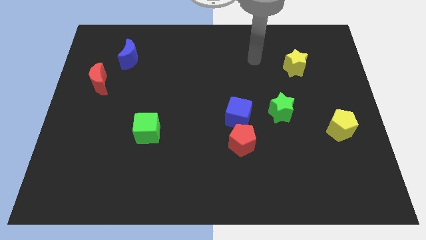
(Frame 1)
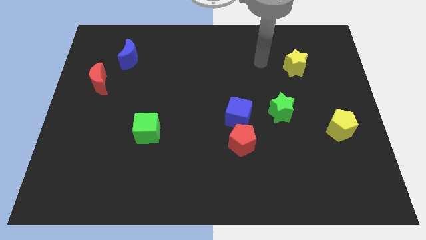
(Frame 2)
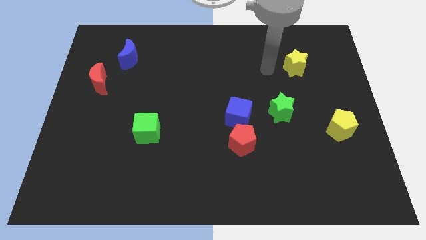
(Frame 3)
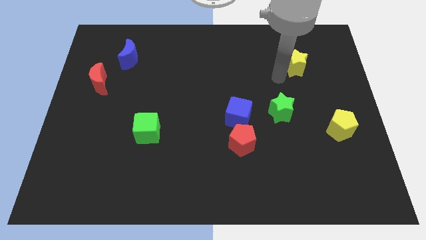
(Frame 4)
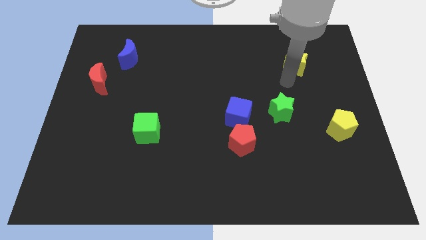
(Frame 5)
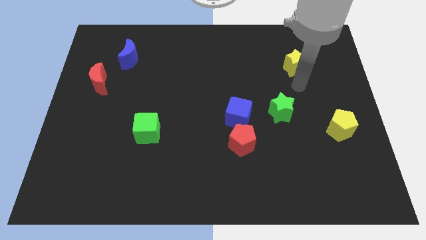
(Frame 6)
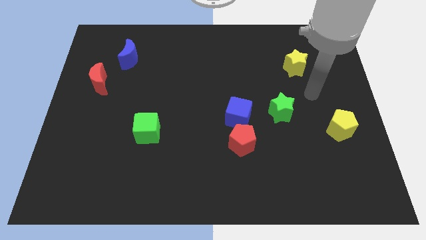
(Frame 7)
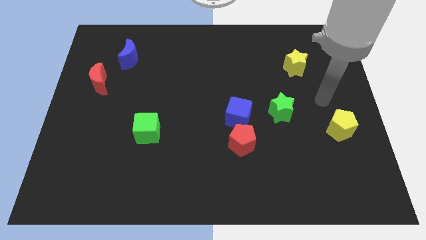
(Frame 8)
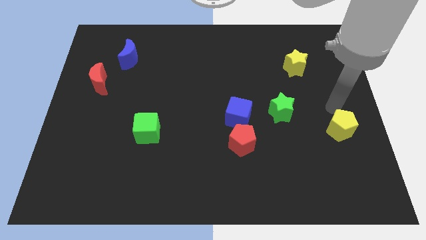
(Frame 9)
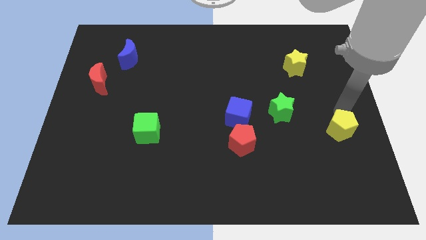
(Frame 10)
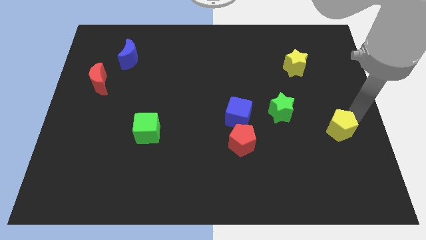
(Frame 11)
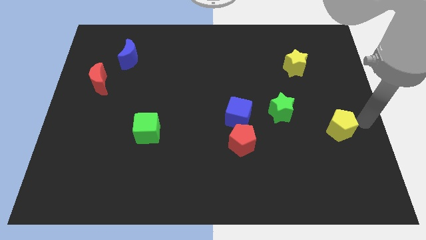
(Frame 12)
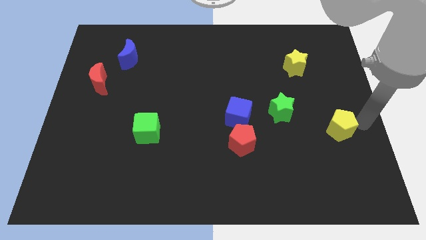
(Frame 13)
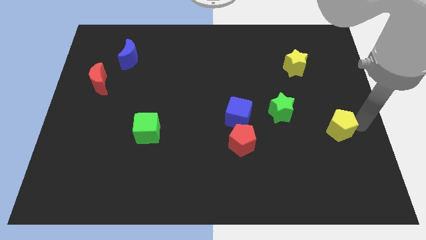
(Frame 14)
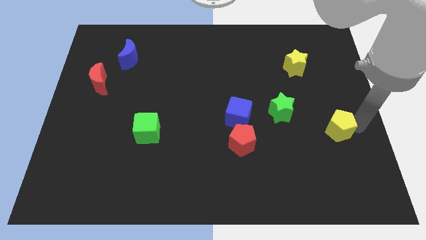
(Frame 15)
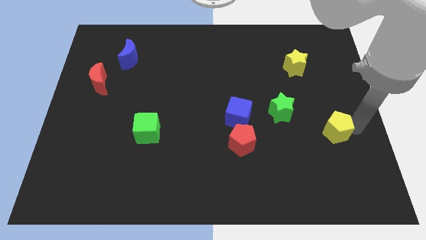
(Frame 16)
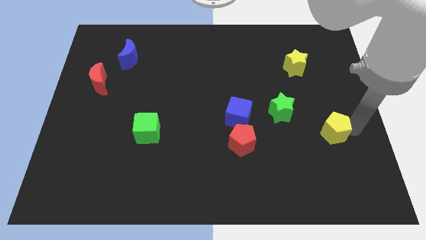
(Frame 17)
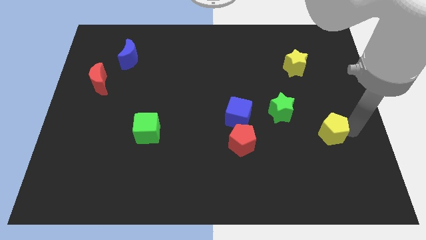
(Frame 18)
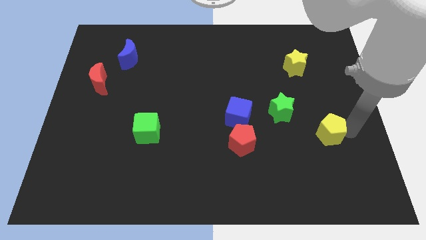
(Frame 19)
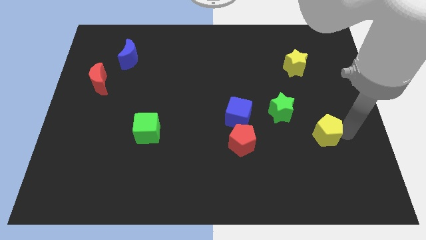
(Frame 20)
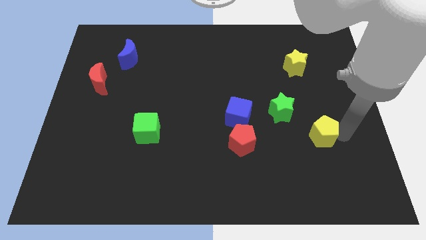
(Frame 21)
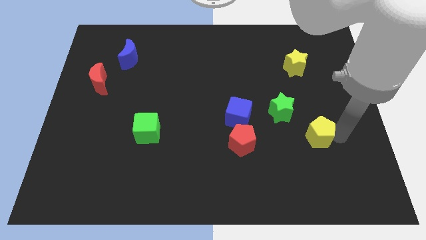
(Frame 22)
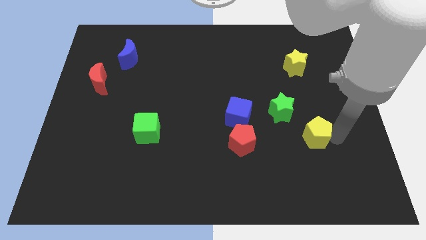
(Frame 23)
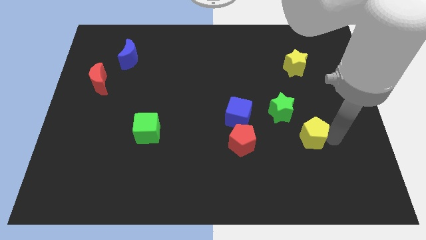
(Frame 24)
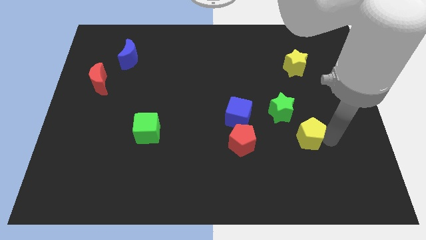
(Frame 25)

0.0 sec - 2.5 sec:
slightly move the yellow pentagon left

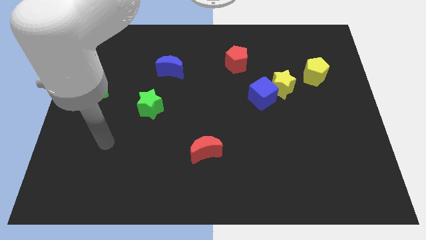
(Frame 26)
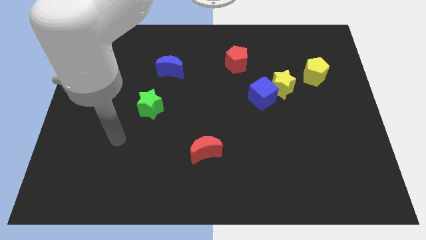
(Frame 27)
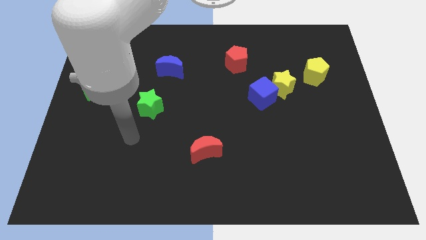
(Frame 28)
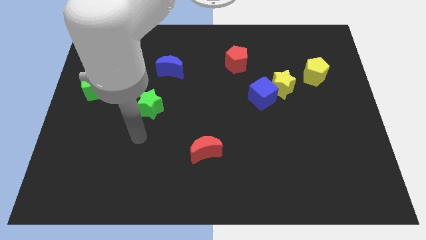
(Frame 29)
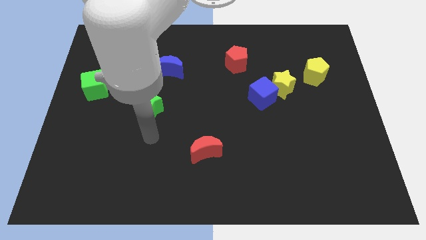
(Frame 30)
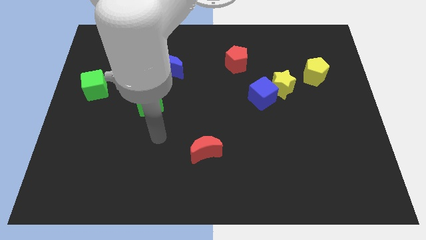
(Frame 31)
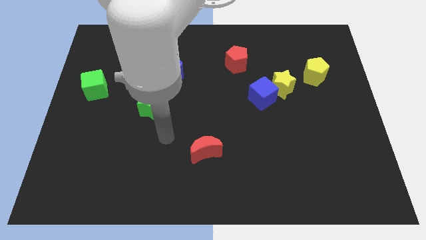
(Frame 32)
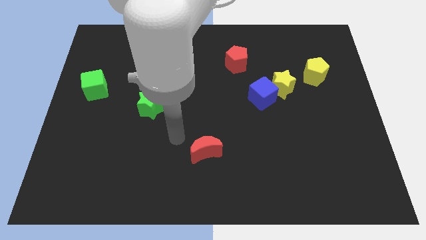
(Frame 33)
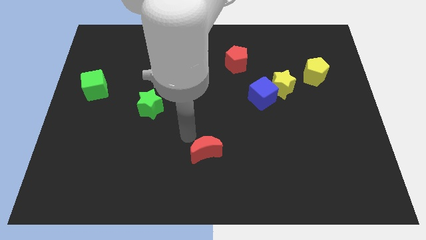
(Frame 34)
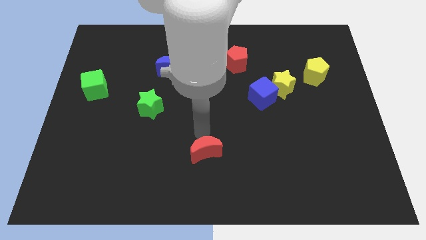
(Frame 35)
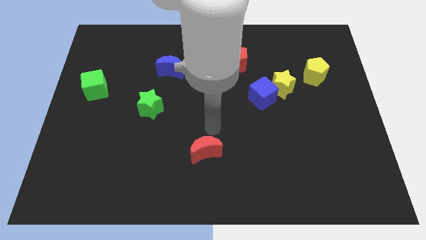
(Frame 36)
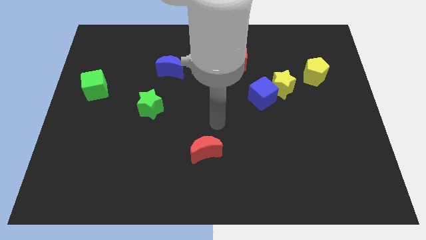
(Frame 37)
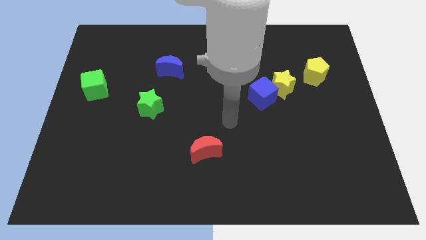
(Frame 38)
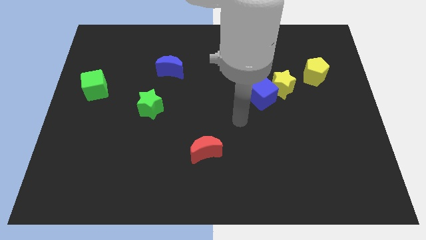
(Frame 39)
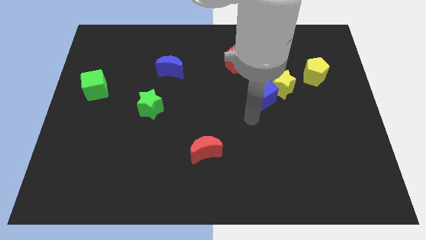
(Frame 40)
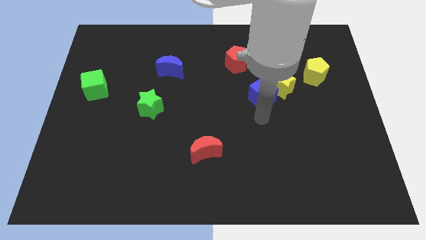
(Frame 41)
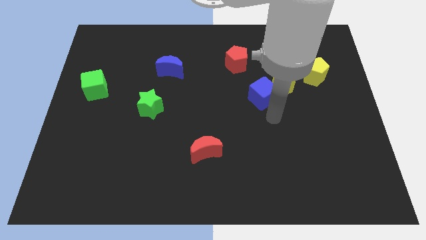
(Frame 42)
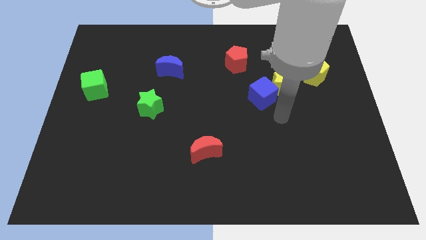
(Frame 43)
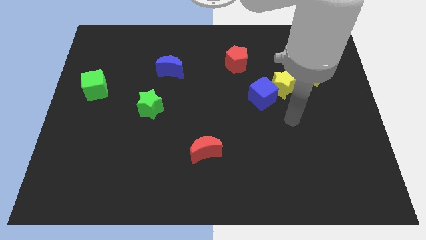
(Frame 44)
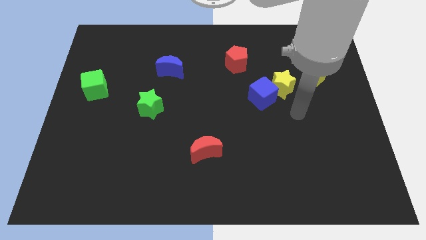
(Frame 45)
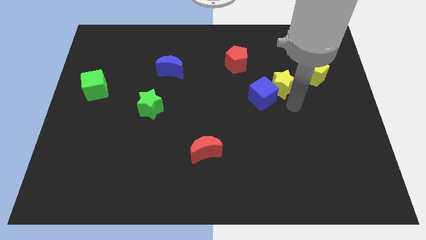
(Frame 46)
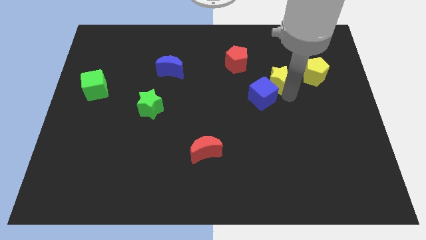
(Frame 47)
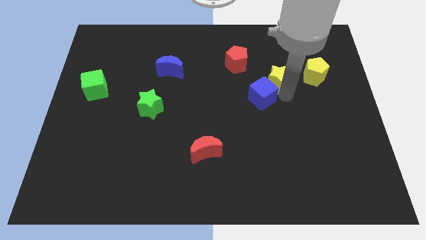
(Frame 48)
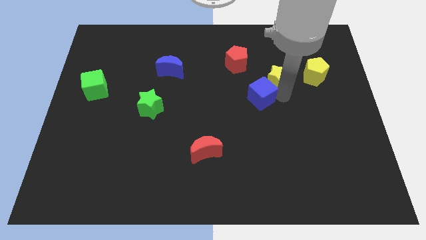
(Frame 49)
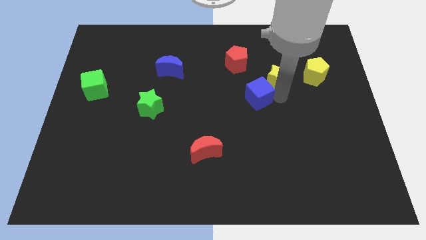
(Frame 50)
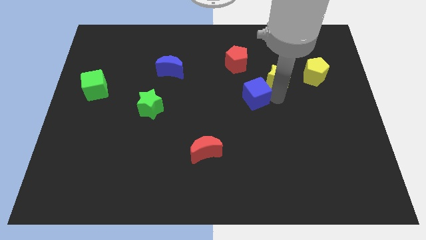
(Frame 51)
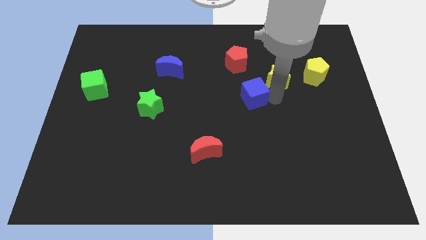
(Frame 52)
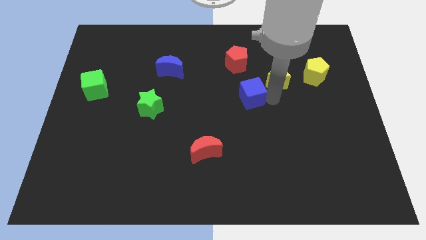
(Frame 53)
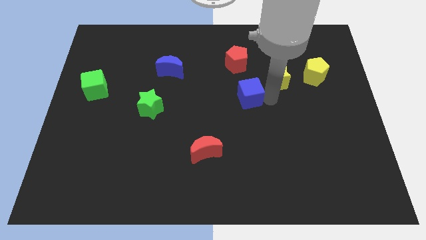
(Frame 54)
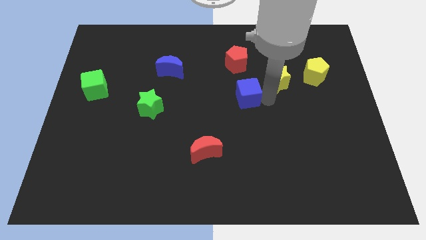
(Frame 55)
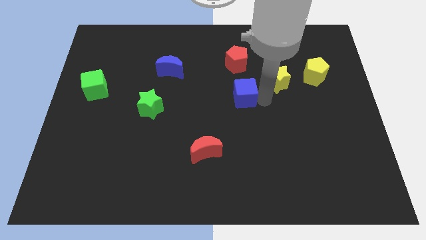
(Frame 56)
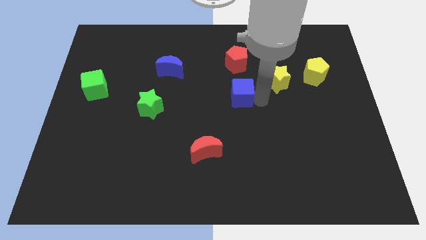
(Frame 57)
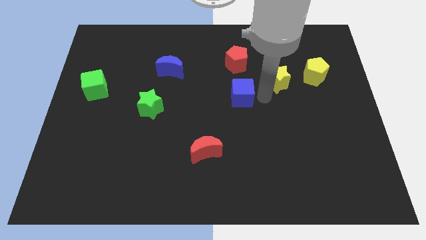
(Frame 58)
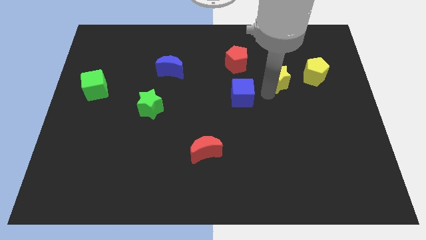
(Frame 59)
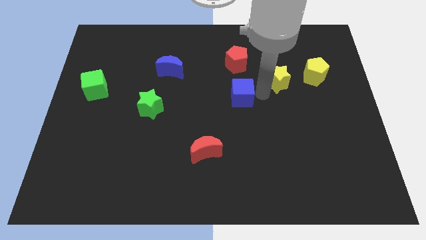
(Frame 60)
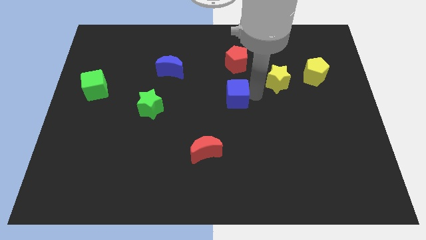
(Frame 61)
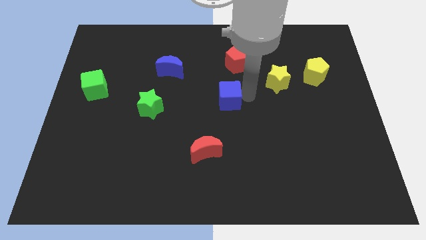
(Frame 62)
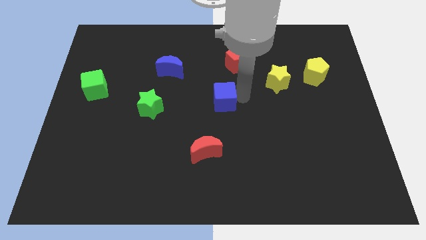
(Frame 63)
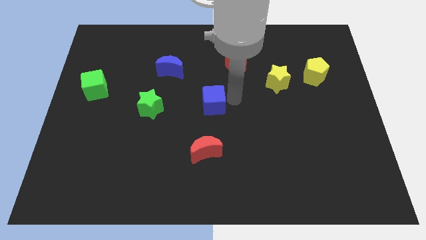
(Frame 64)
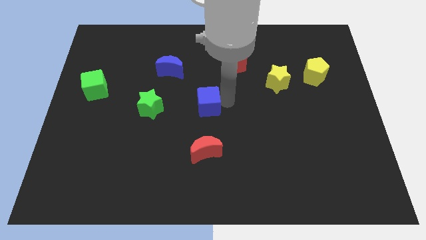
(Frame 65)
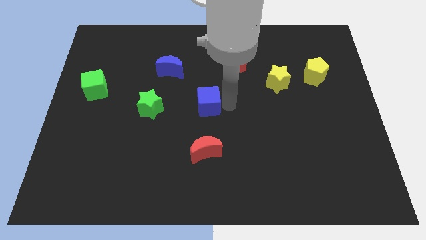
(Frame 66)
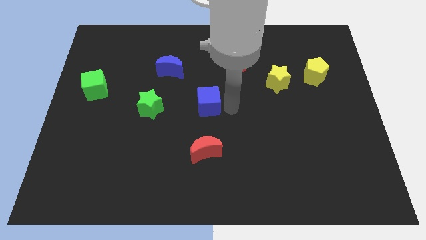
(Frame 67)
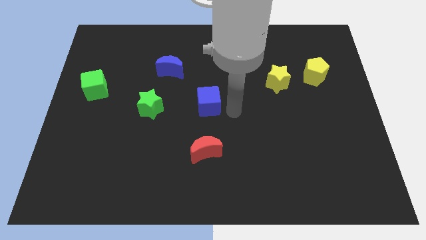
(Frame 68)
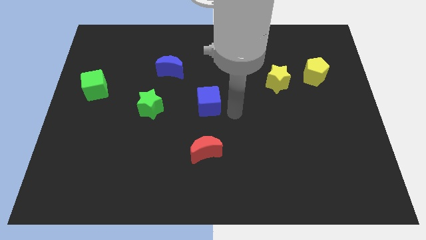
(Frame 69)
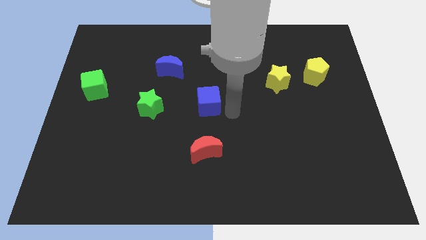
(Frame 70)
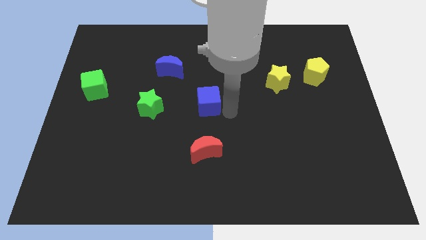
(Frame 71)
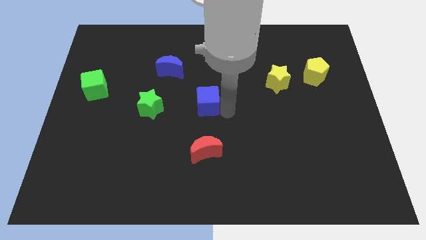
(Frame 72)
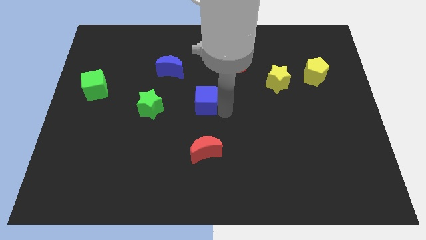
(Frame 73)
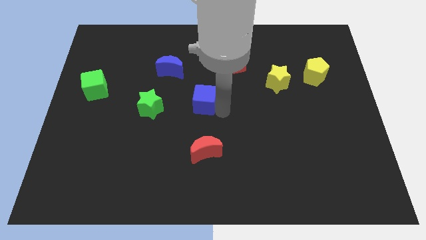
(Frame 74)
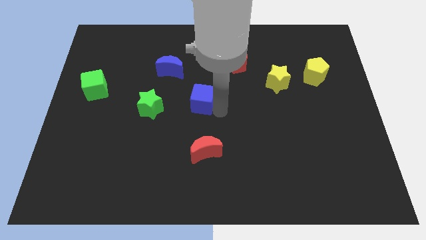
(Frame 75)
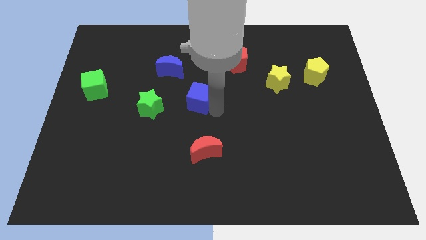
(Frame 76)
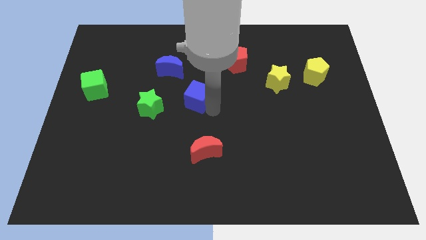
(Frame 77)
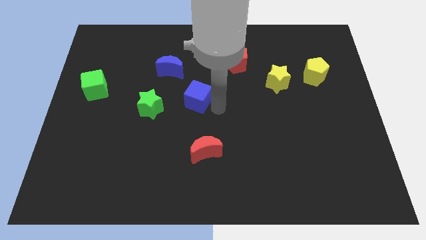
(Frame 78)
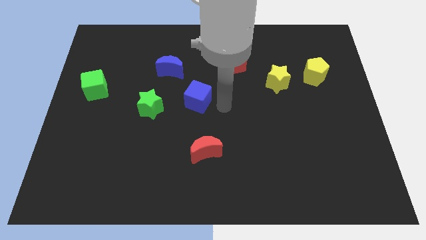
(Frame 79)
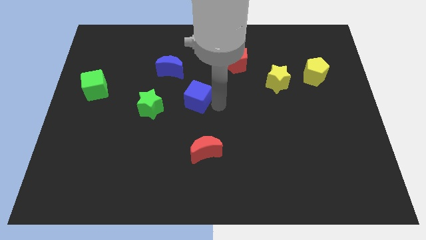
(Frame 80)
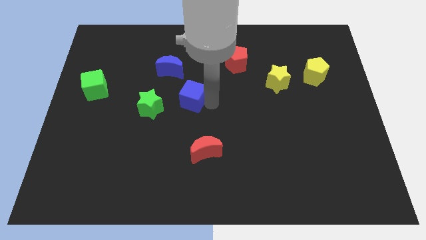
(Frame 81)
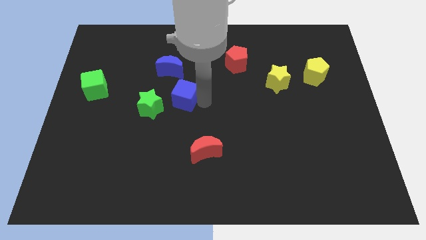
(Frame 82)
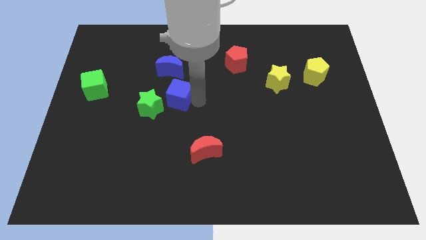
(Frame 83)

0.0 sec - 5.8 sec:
move the blue cube to the left

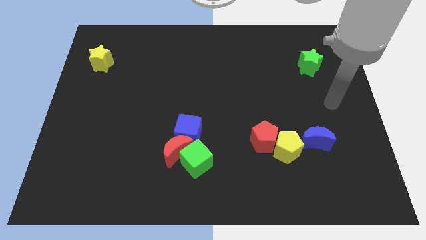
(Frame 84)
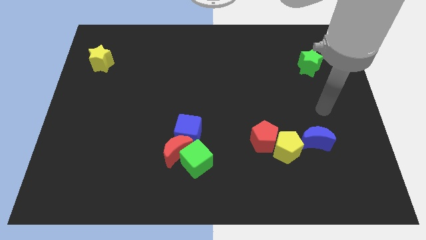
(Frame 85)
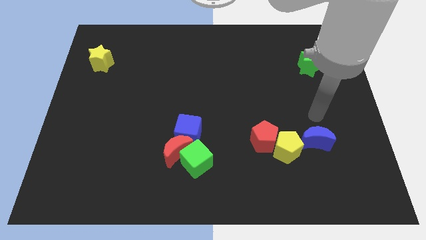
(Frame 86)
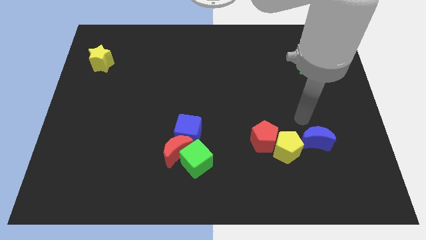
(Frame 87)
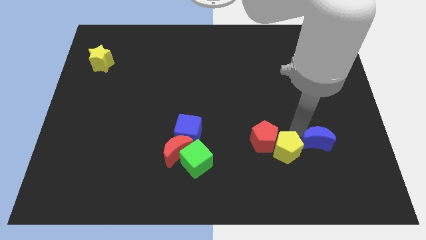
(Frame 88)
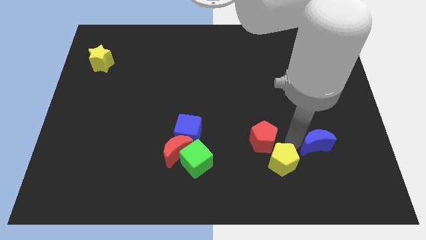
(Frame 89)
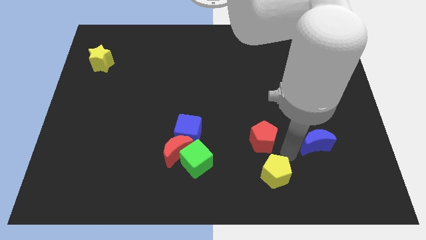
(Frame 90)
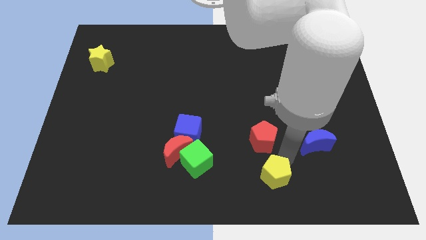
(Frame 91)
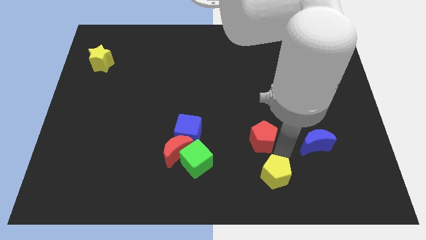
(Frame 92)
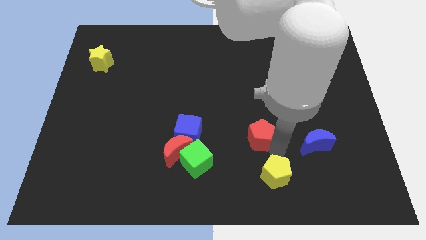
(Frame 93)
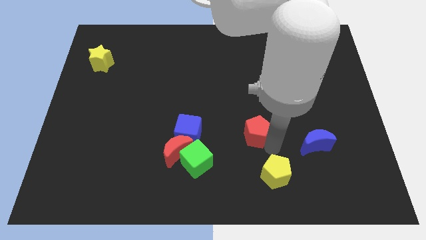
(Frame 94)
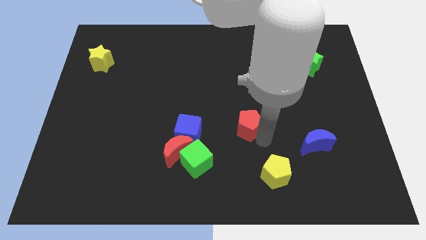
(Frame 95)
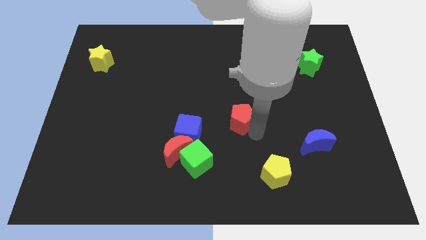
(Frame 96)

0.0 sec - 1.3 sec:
slide the red pentagon diagonally up and left a little bit
